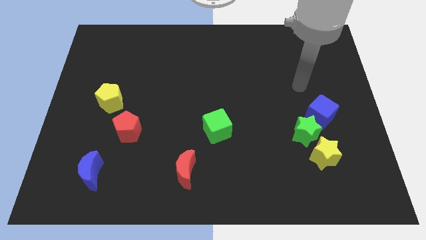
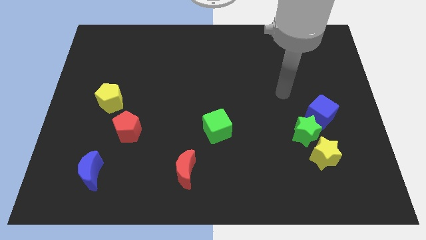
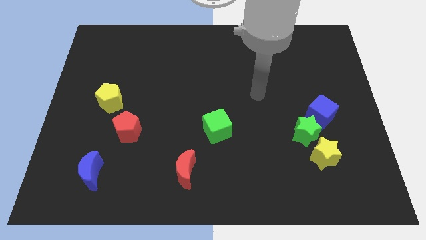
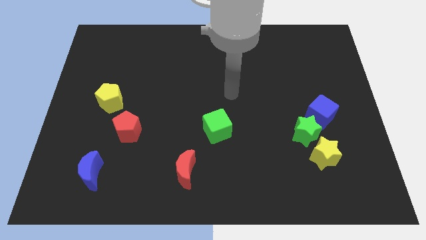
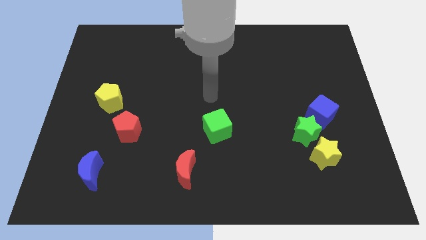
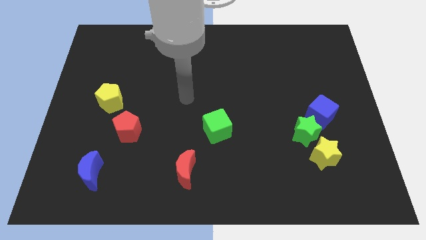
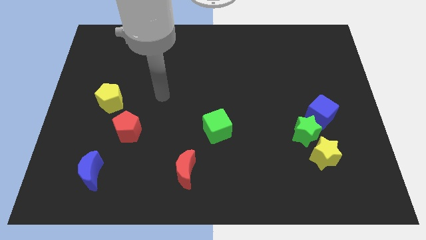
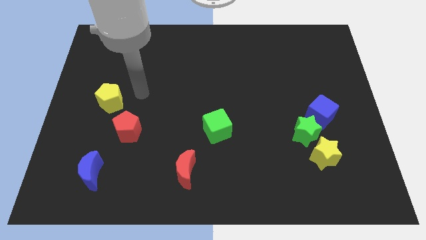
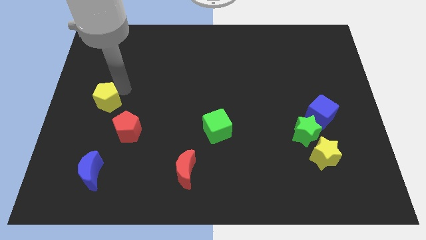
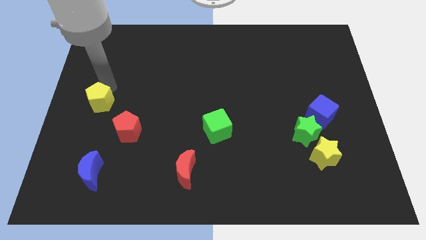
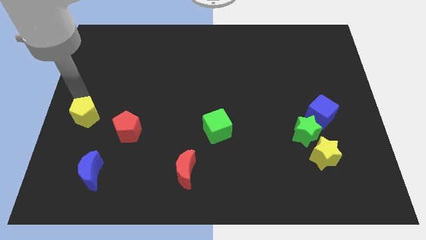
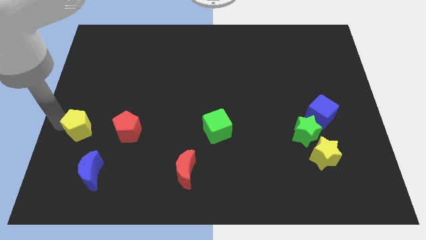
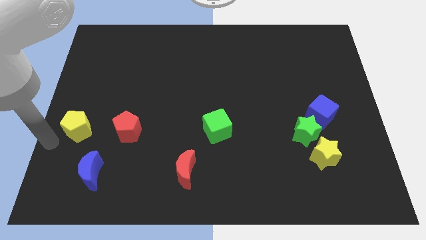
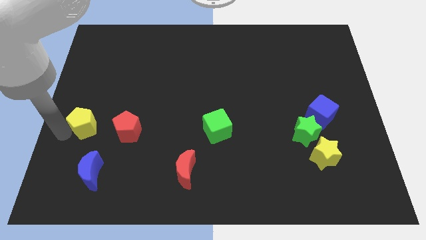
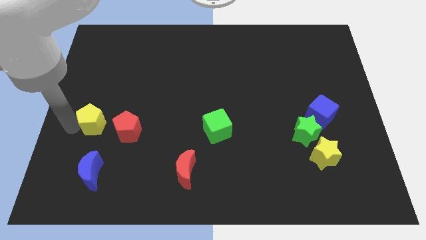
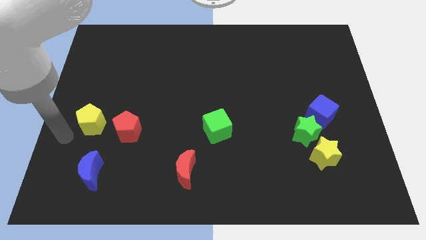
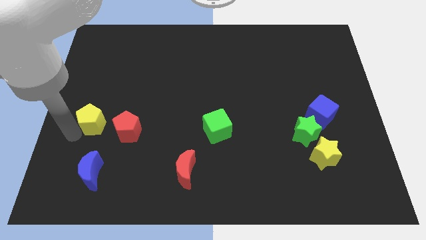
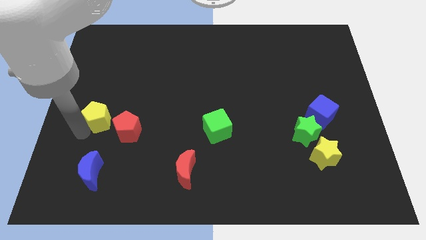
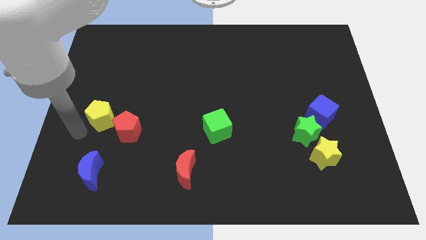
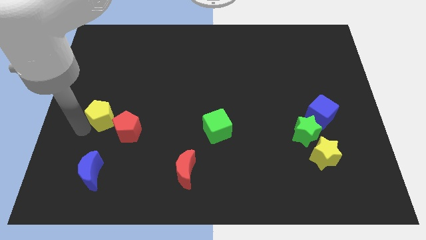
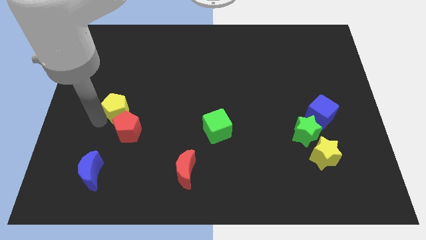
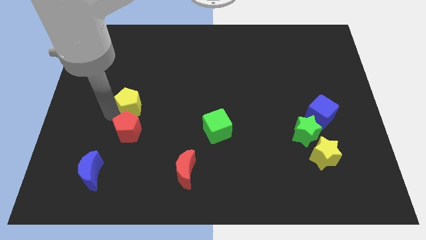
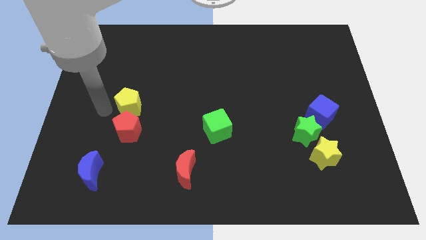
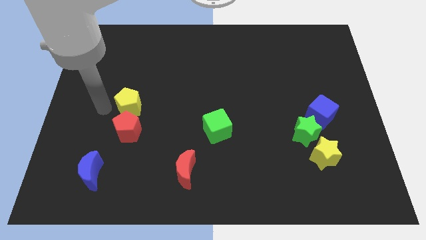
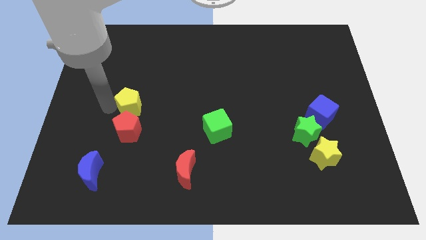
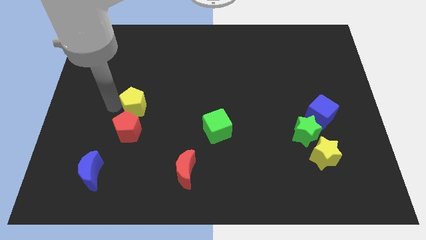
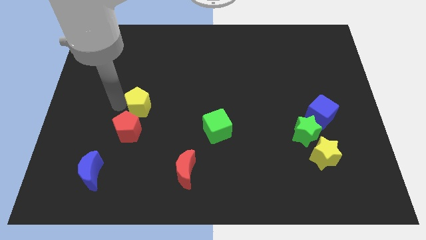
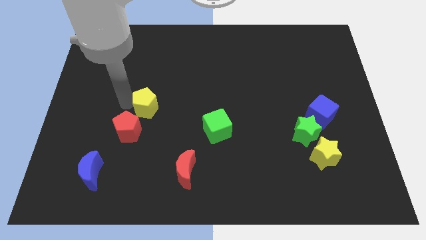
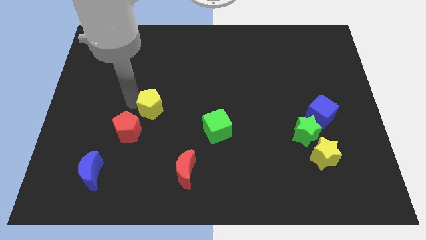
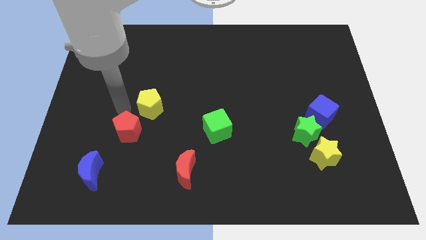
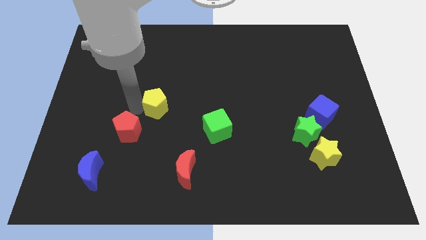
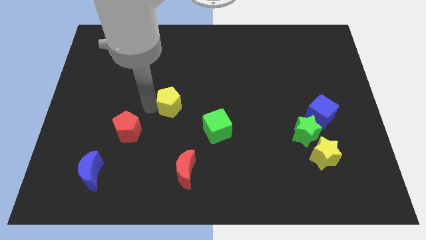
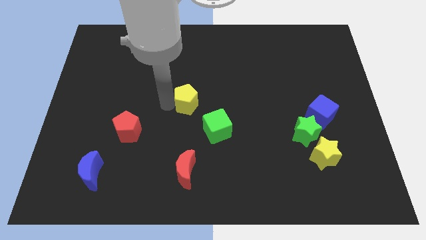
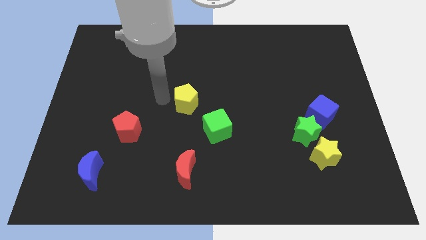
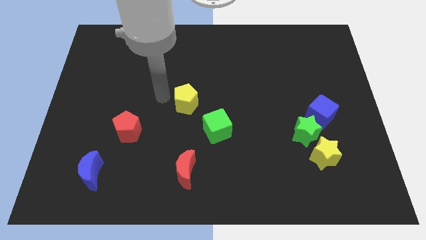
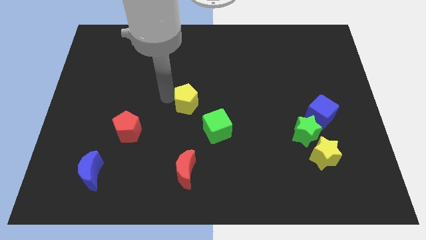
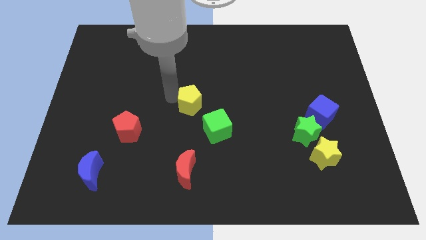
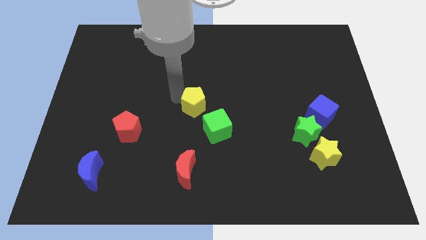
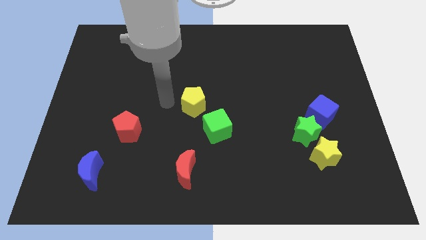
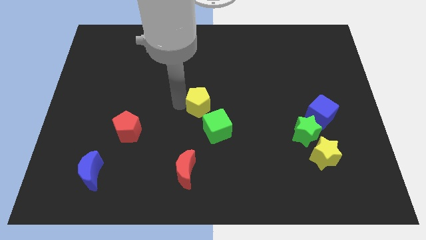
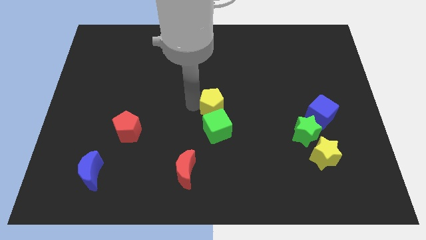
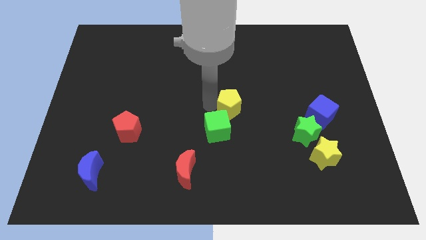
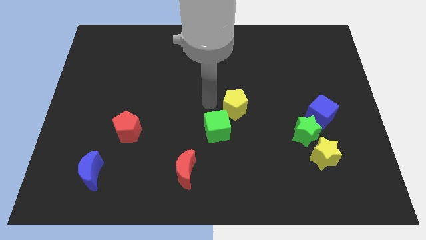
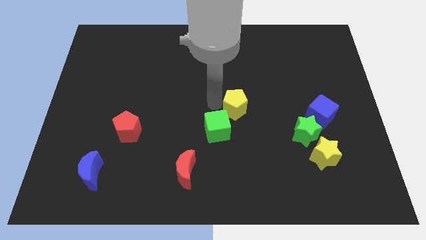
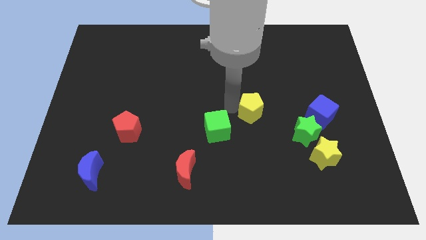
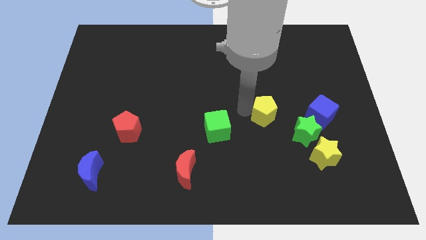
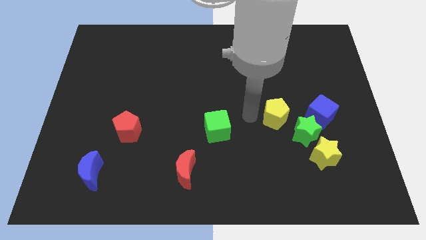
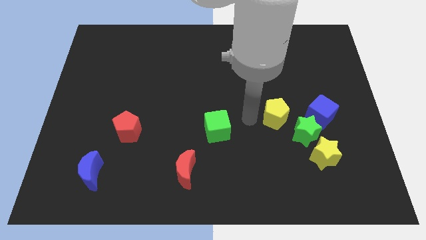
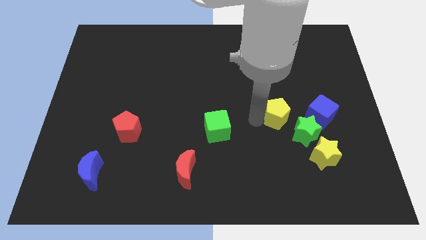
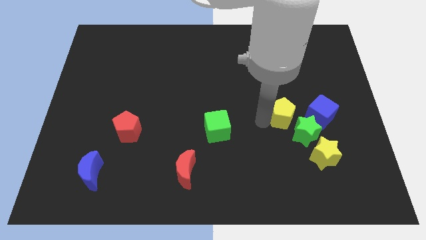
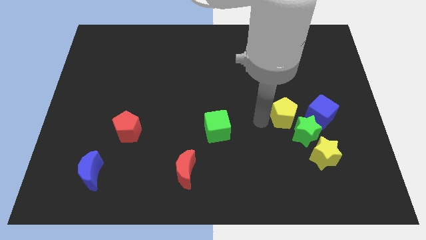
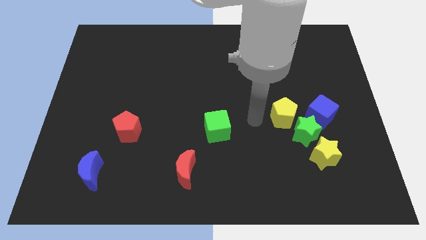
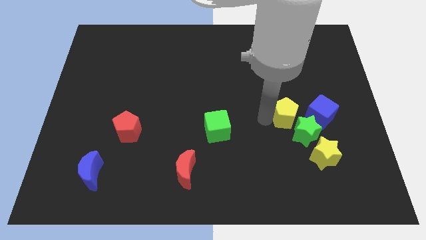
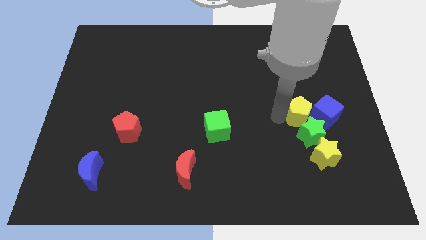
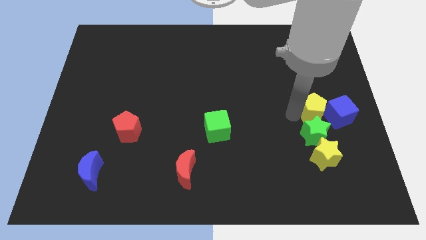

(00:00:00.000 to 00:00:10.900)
push the yellow pentagon to the blue cube

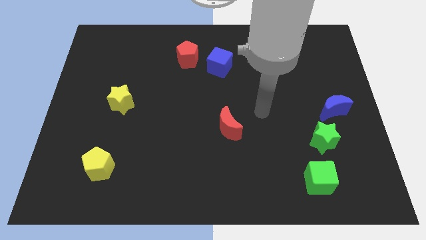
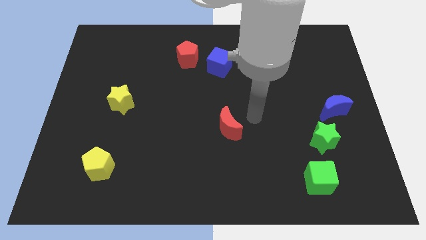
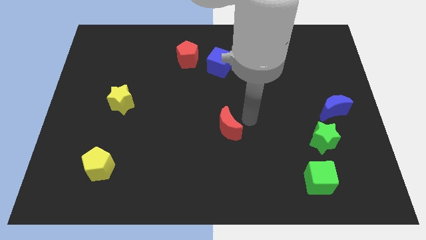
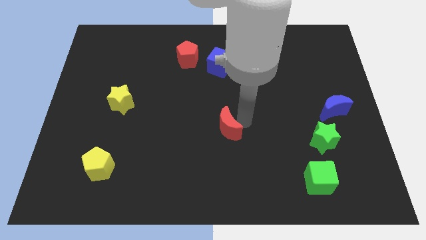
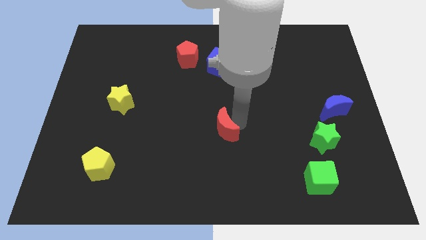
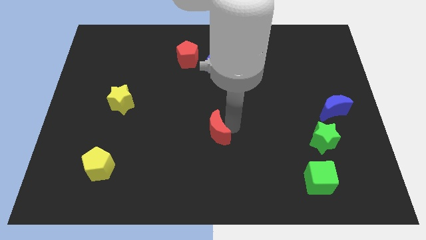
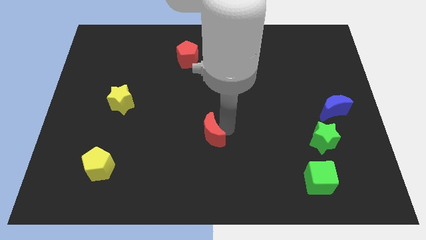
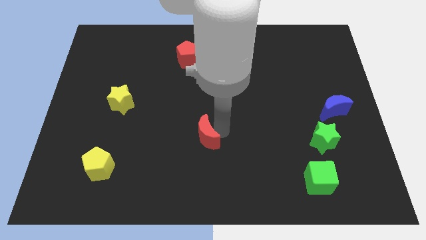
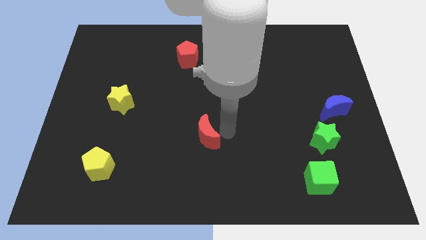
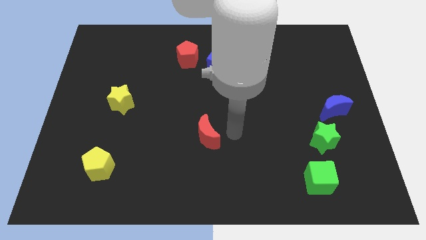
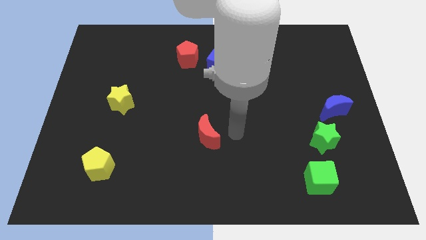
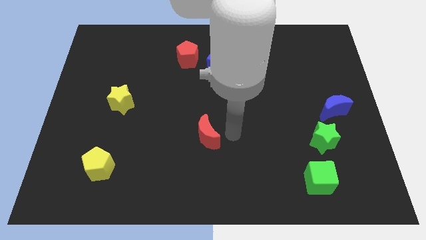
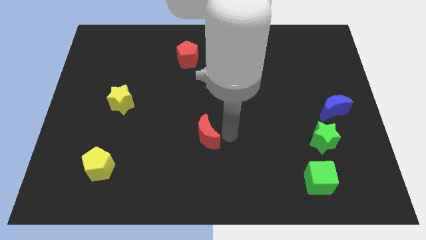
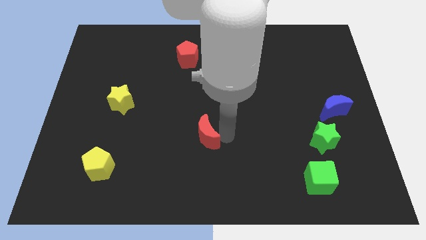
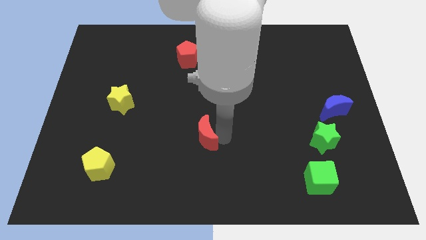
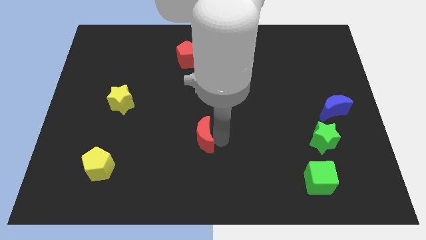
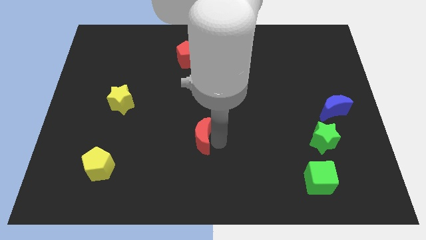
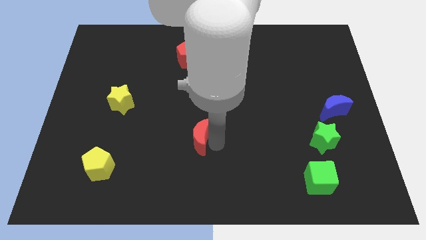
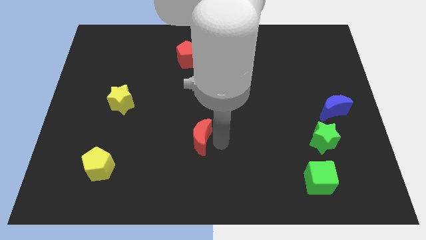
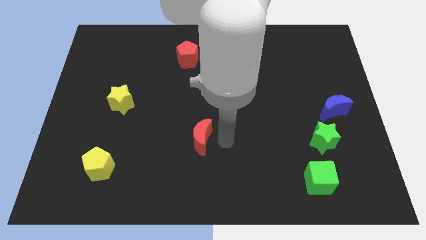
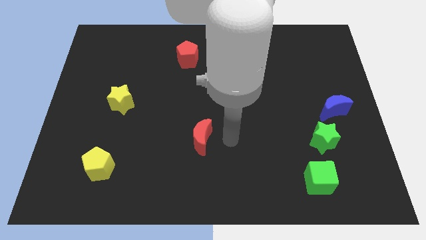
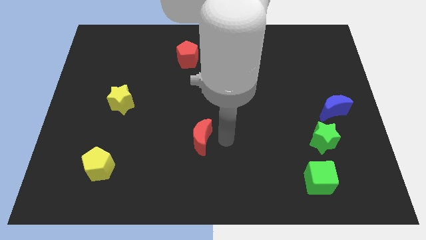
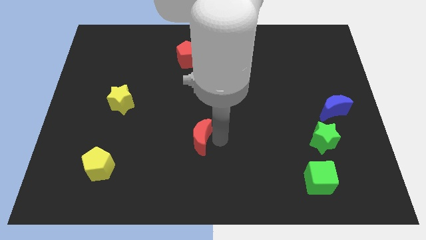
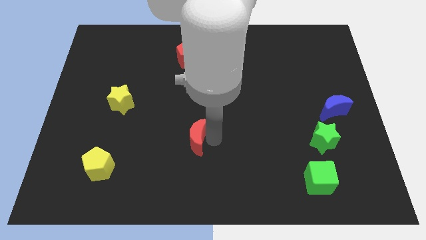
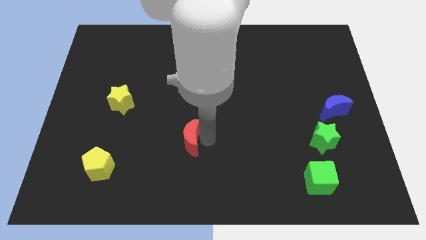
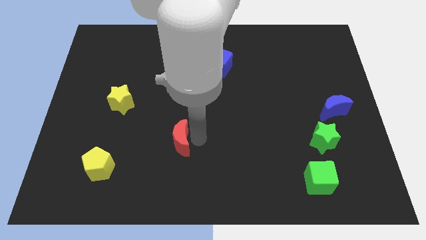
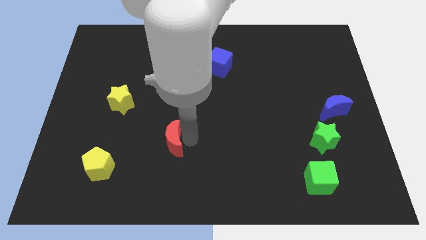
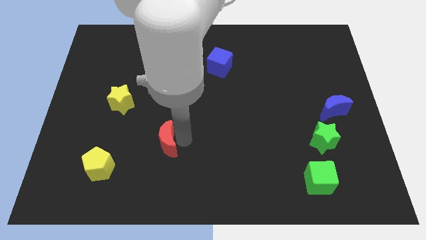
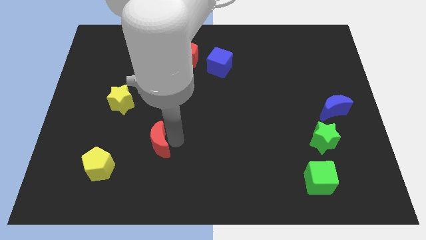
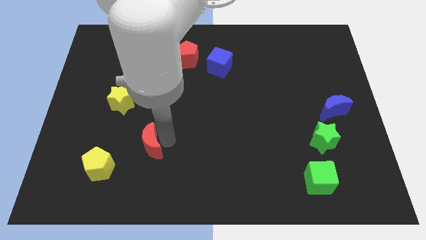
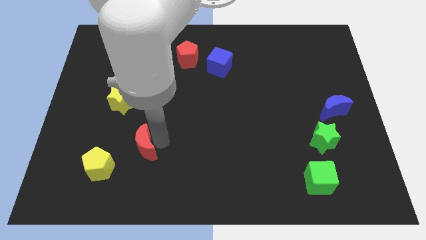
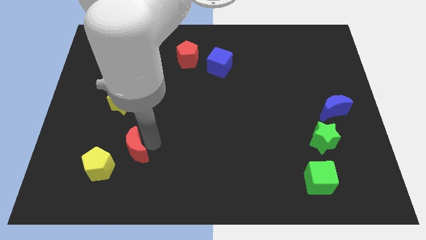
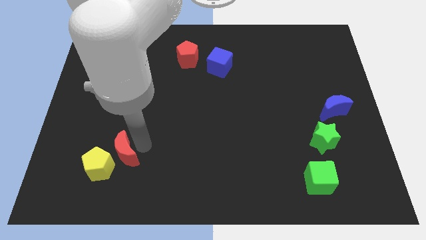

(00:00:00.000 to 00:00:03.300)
slide the red moon next to the yellow pentagon
